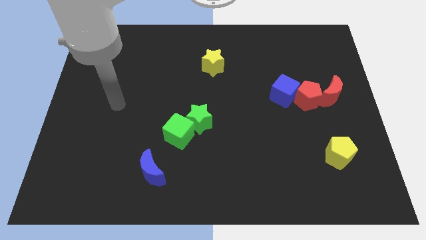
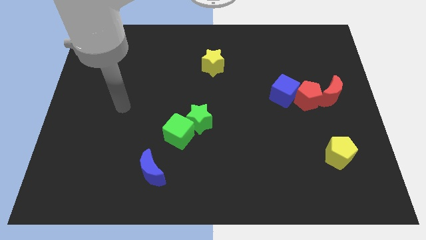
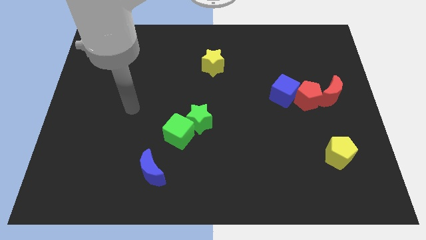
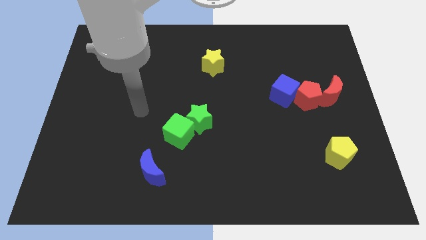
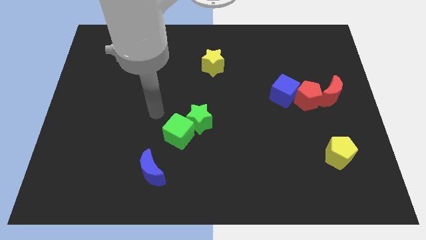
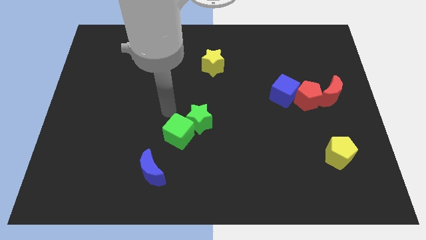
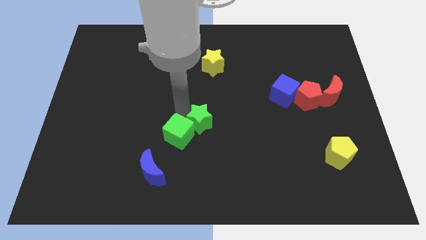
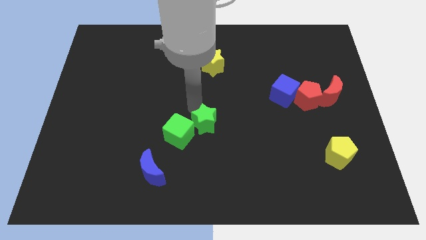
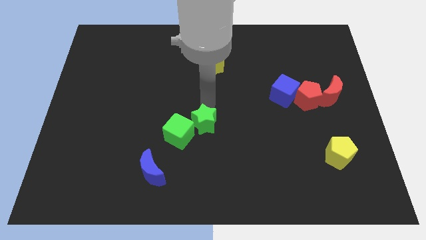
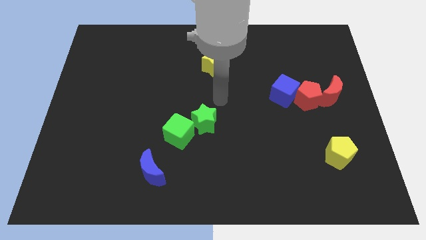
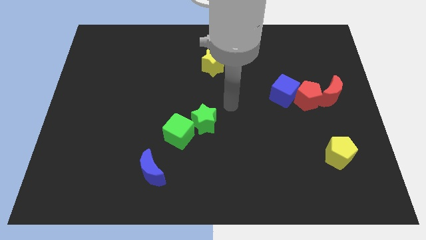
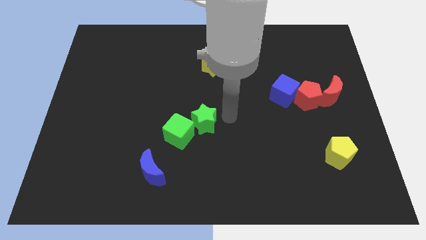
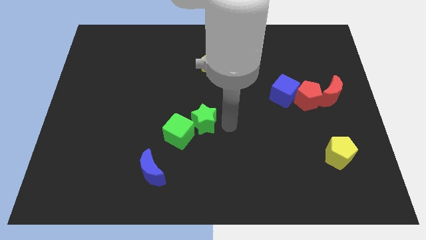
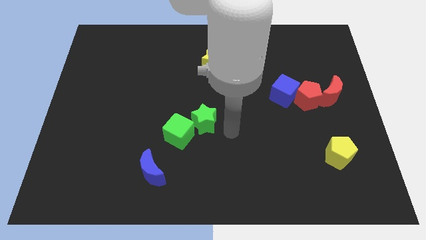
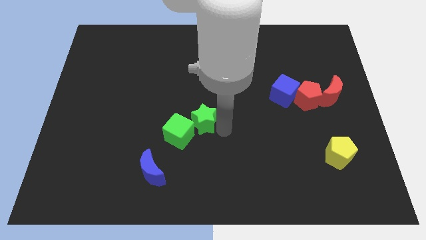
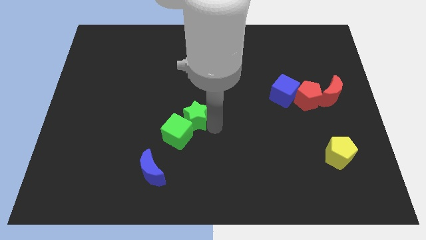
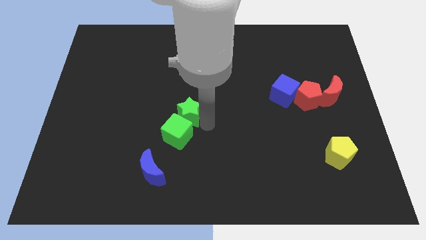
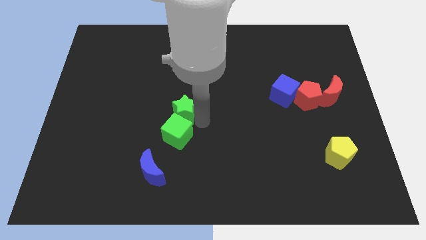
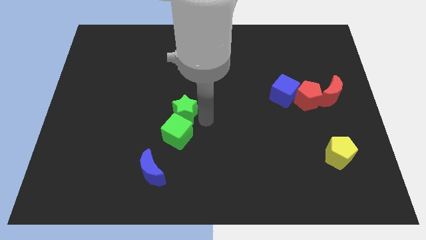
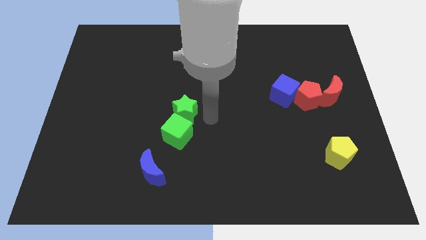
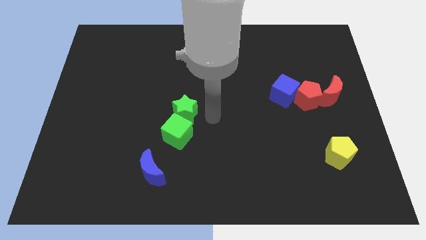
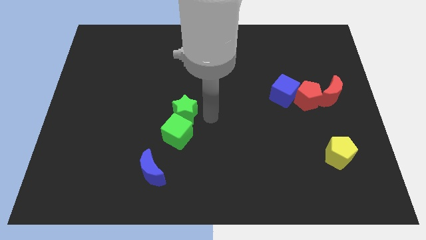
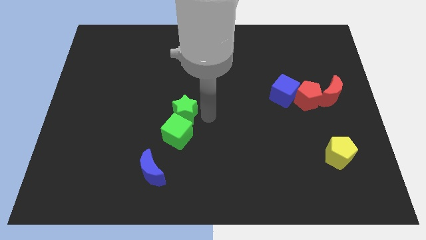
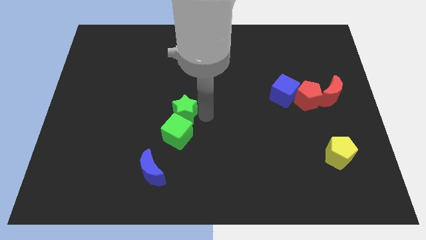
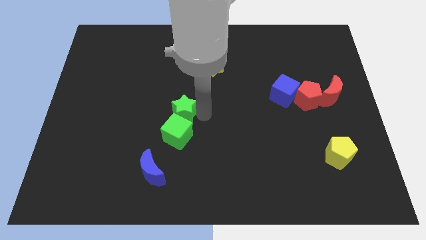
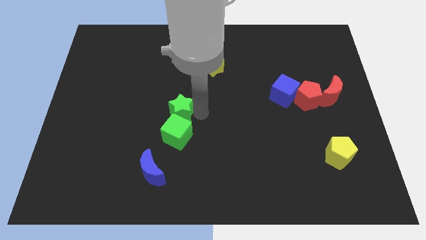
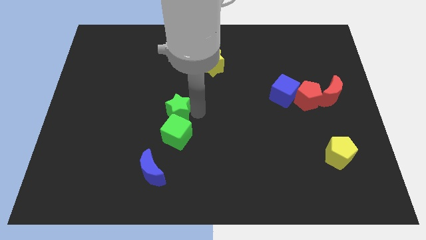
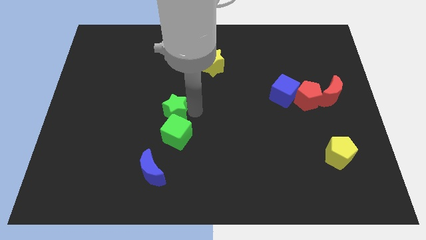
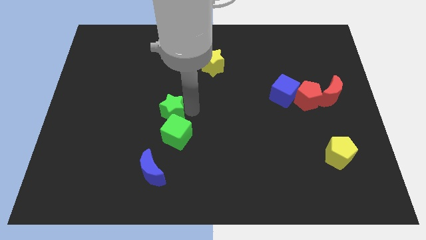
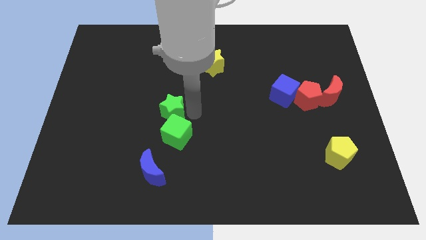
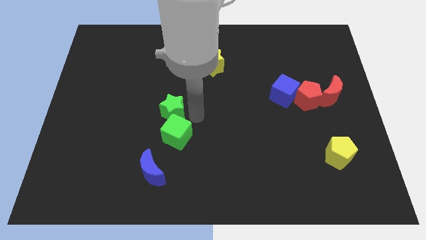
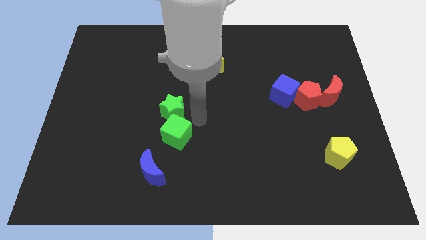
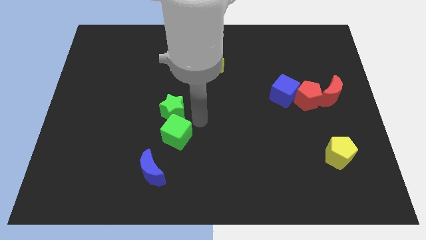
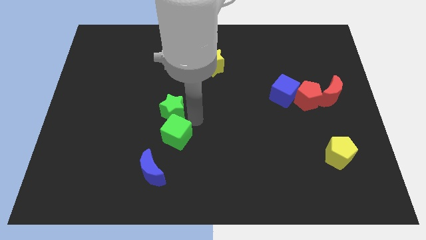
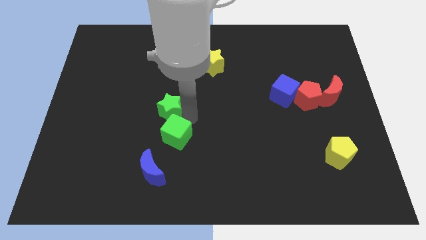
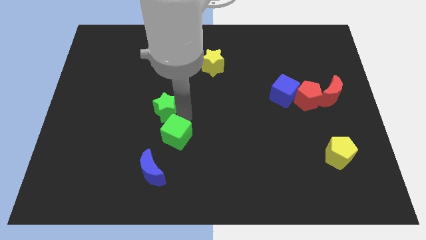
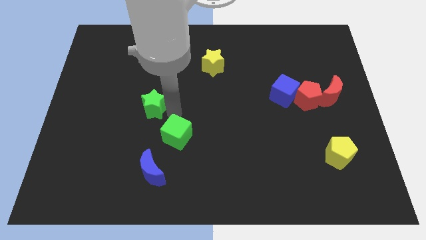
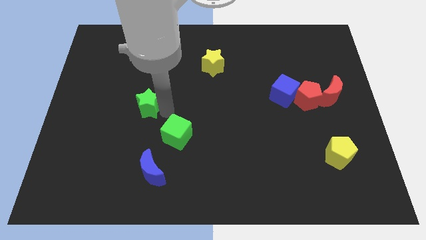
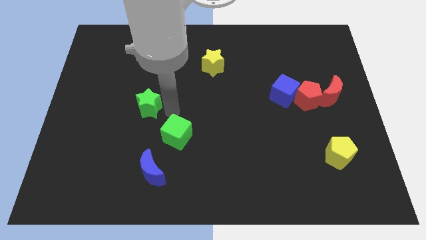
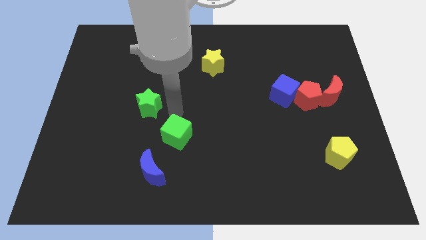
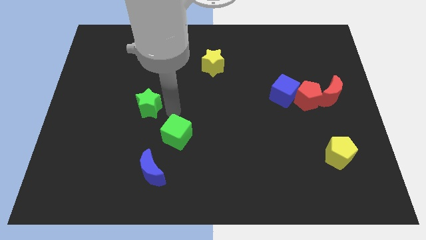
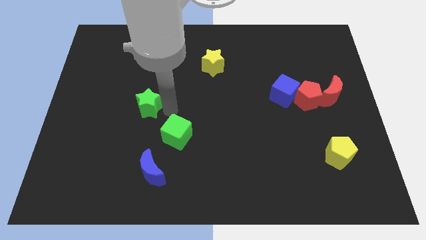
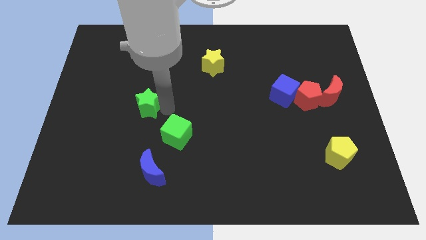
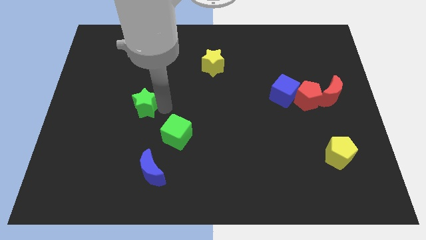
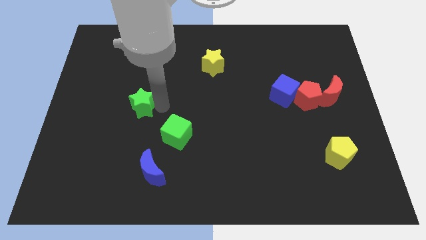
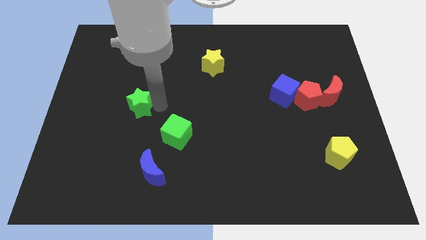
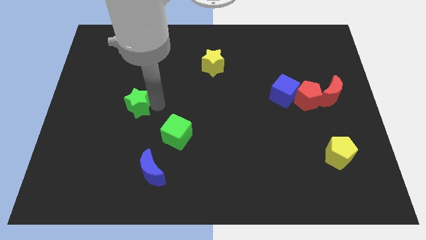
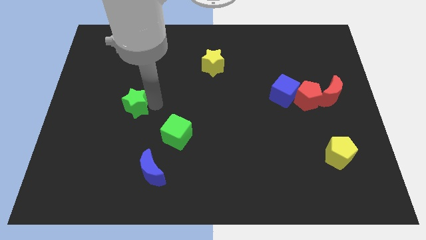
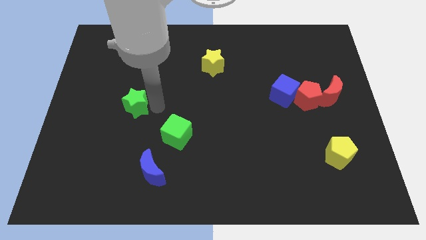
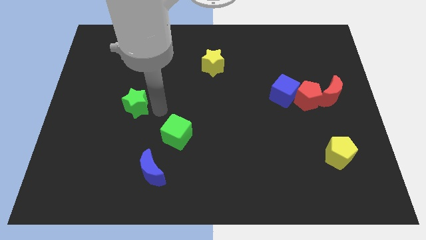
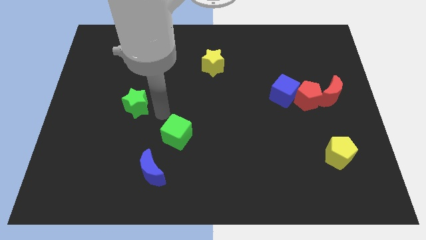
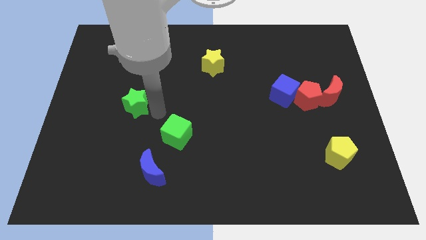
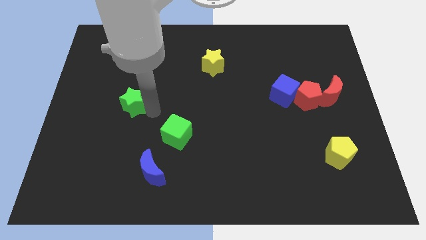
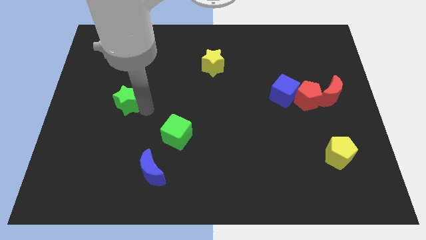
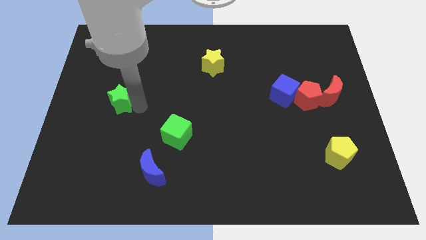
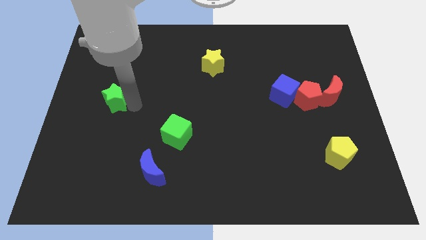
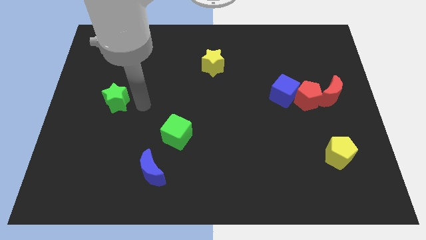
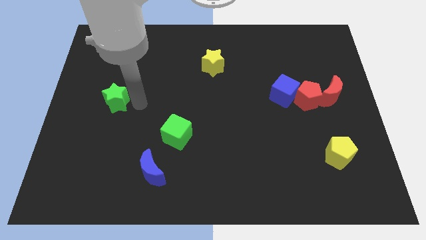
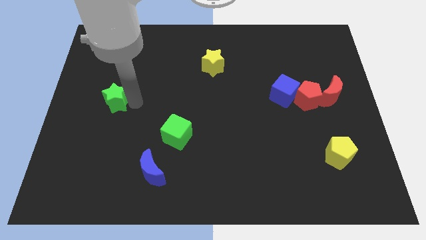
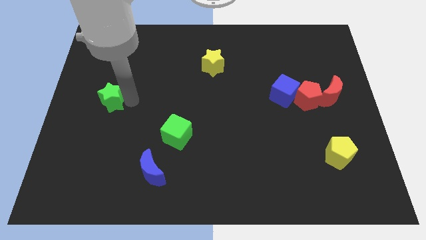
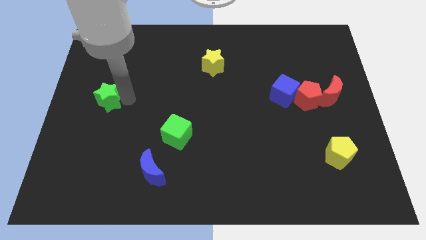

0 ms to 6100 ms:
slide the green star to the left side of the board

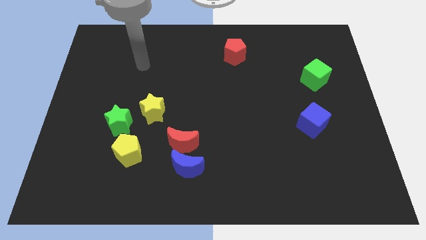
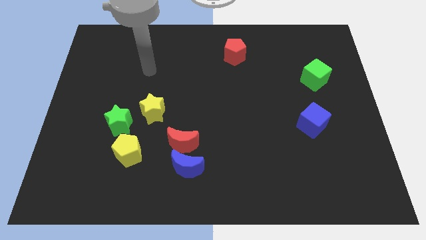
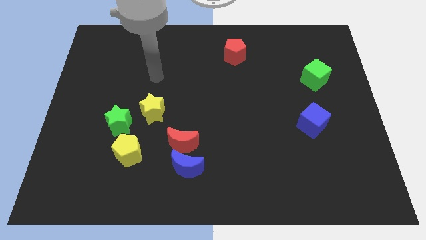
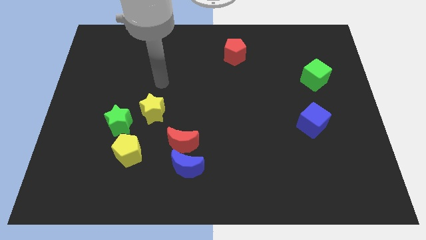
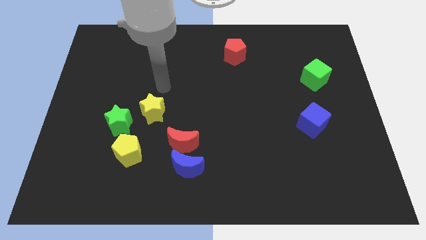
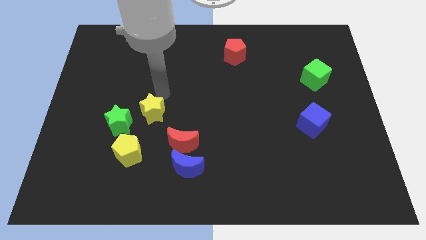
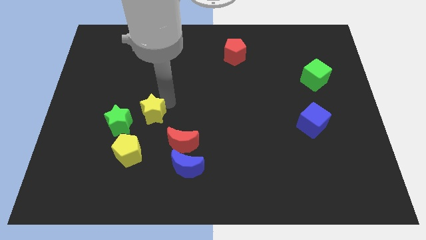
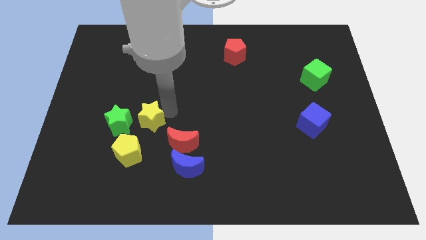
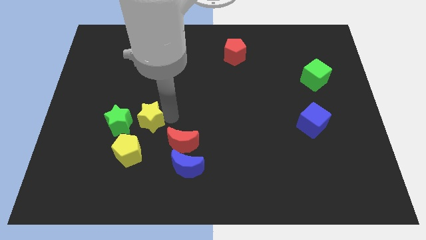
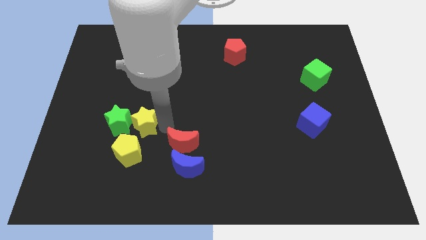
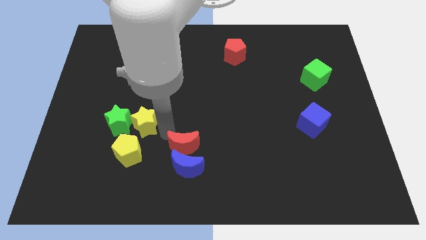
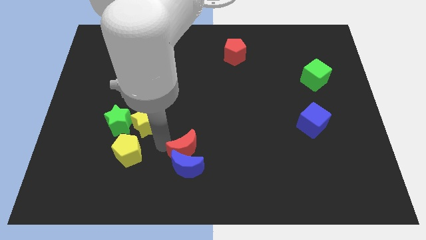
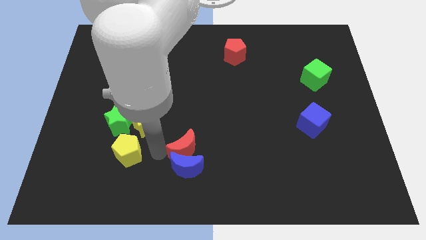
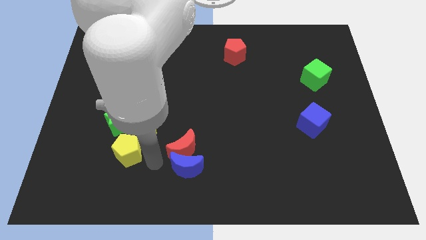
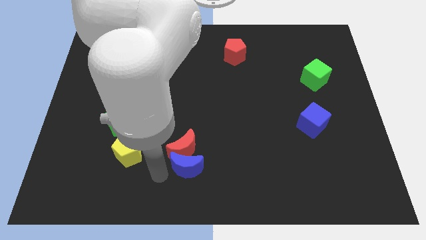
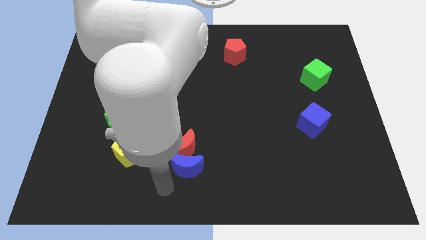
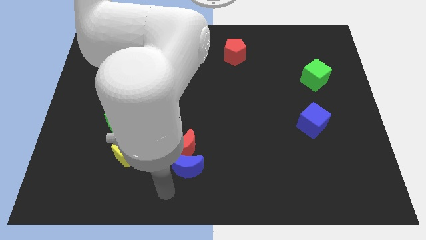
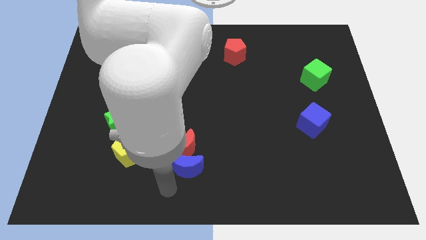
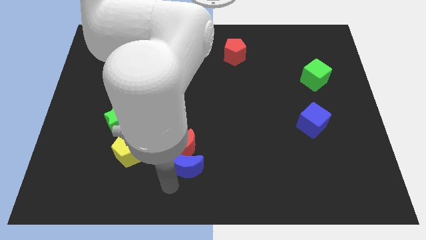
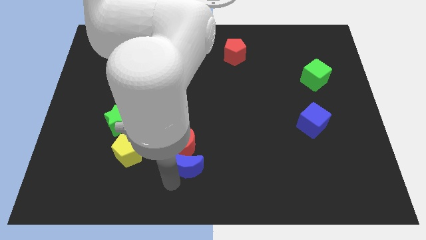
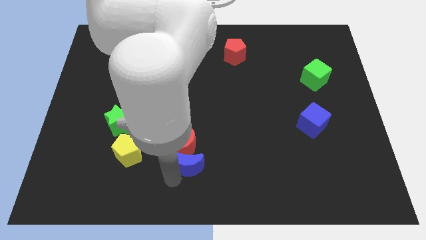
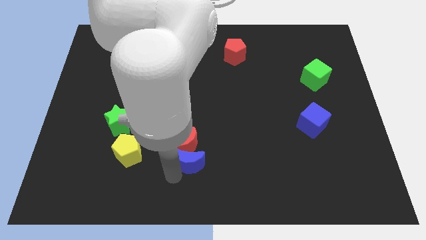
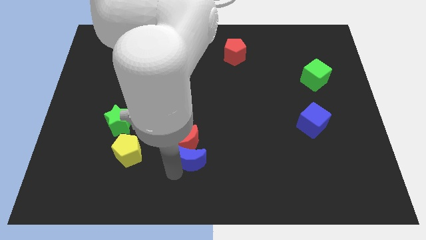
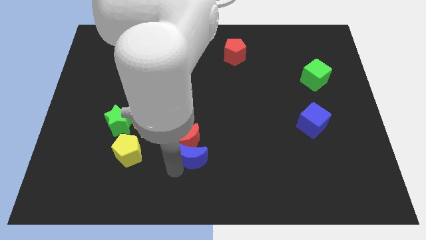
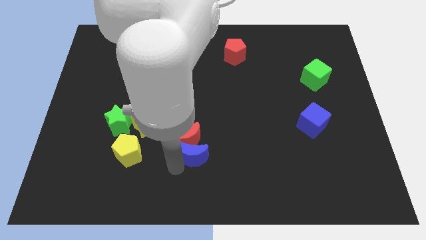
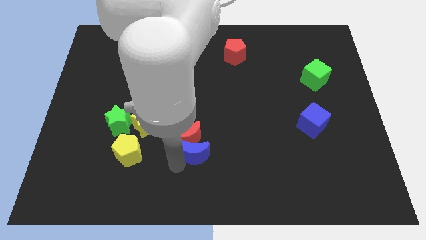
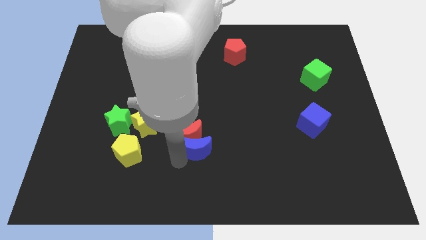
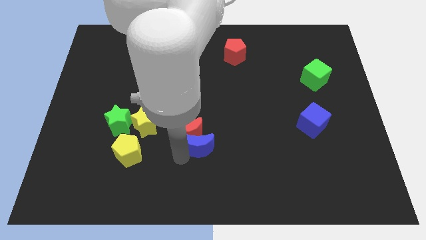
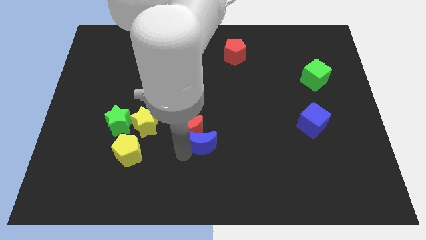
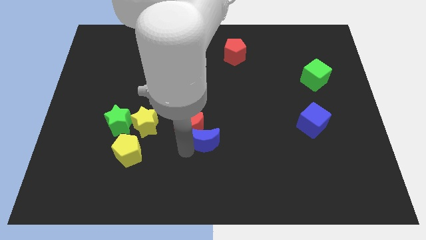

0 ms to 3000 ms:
put the blue moon to the center
